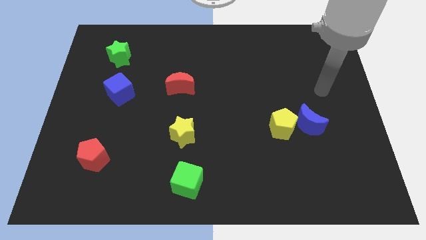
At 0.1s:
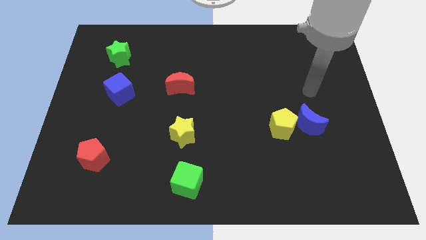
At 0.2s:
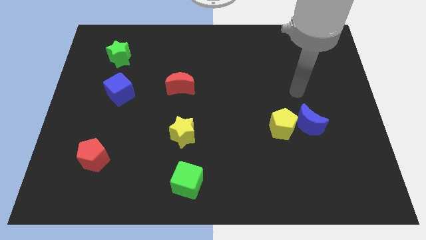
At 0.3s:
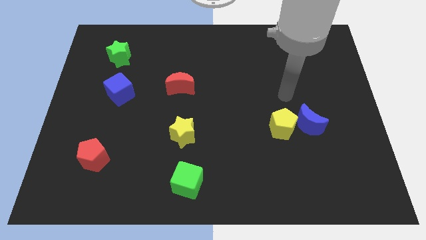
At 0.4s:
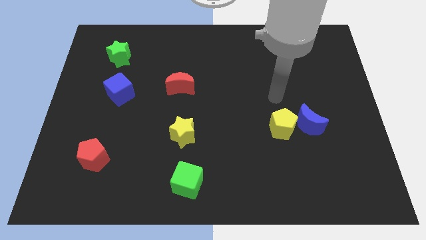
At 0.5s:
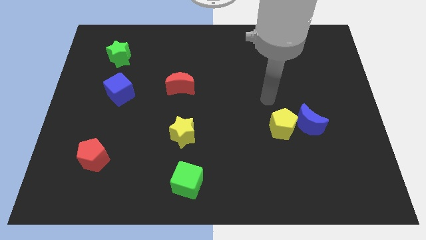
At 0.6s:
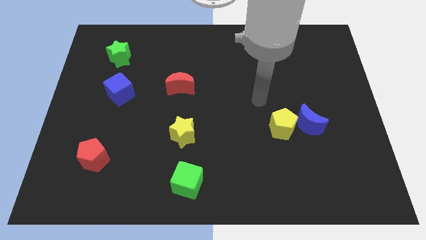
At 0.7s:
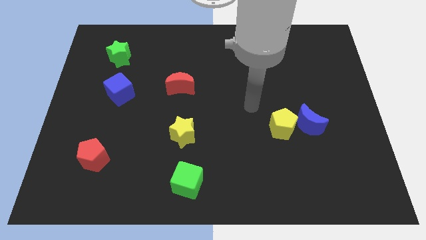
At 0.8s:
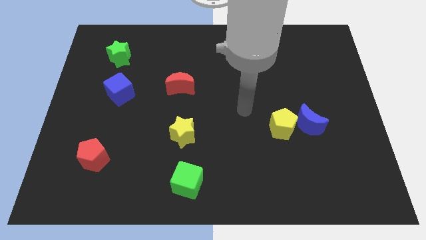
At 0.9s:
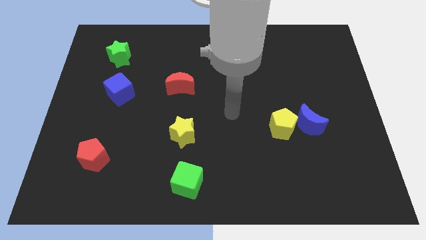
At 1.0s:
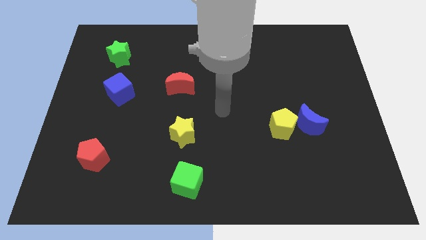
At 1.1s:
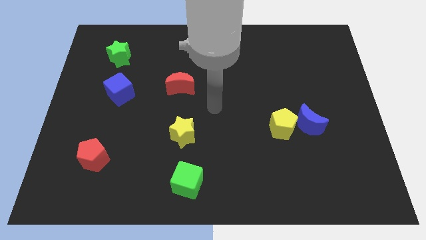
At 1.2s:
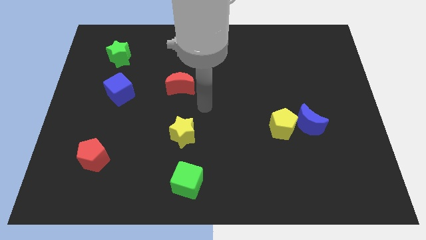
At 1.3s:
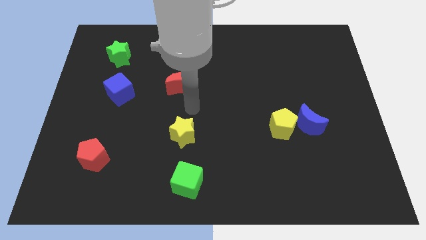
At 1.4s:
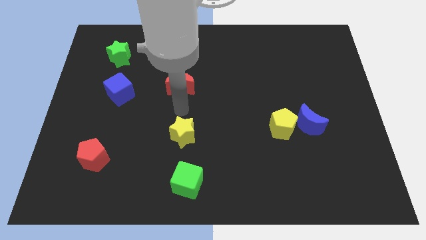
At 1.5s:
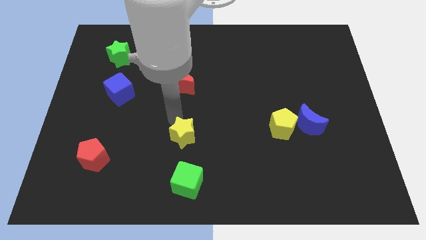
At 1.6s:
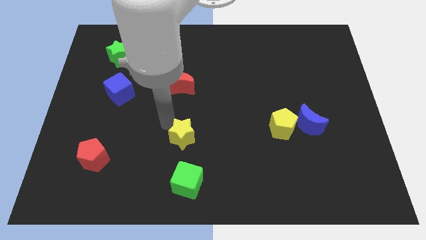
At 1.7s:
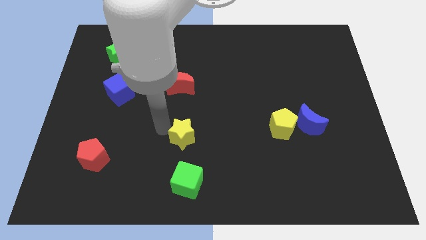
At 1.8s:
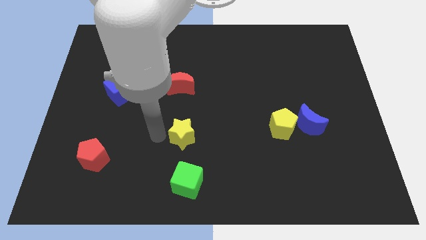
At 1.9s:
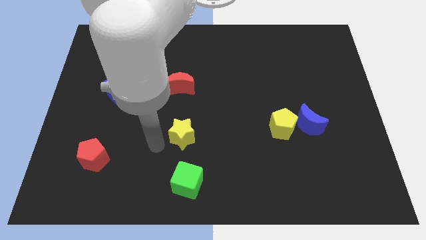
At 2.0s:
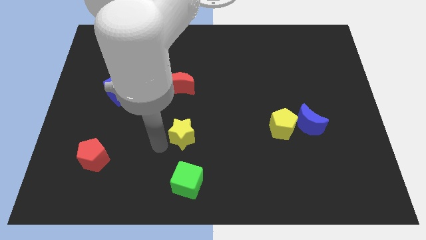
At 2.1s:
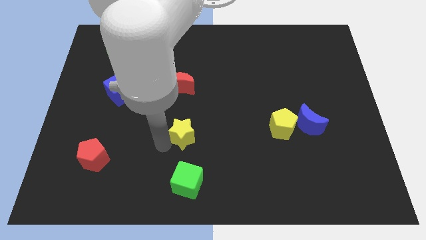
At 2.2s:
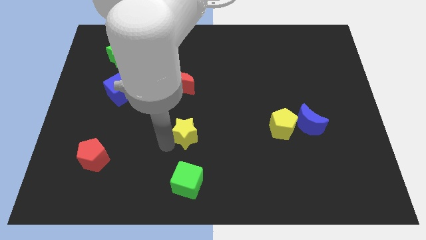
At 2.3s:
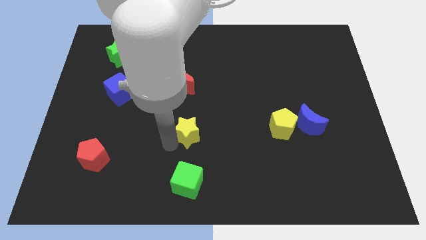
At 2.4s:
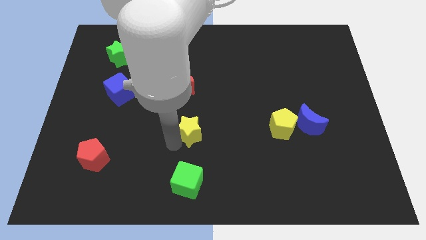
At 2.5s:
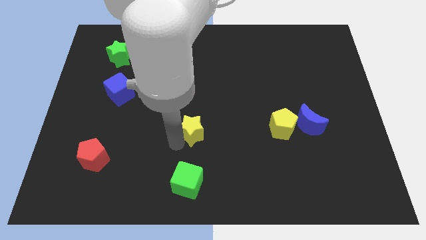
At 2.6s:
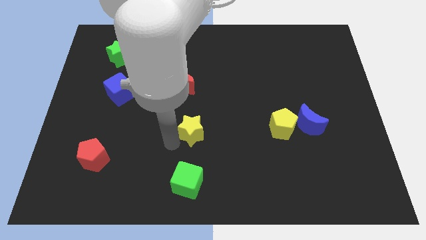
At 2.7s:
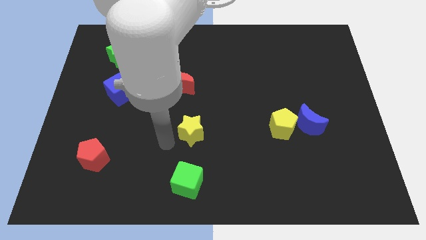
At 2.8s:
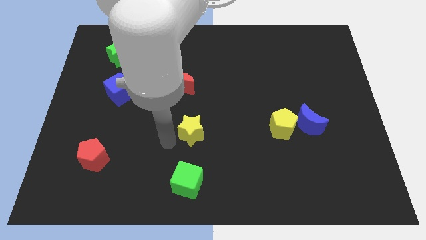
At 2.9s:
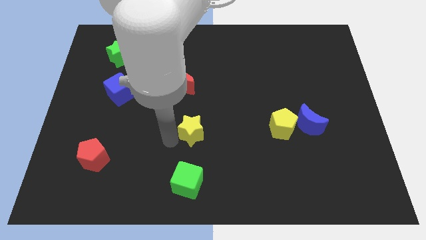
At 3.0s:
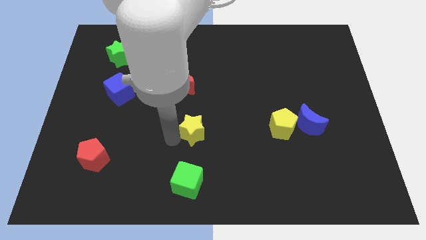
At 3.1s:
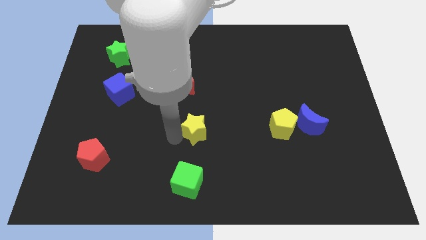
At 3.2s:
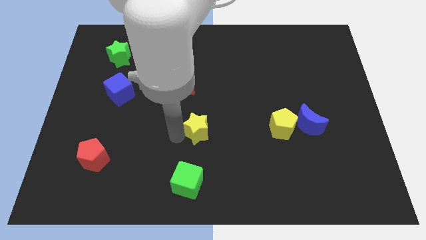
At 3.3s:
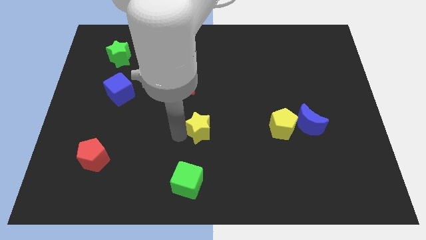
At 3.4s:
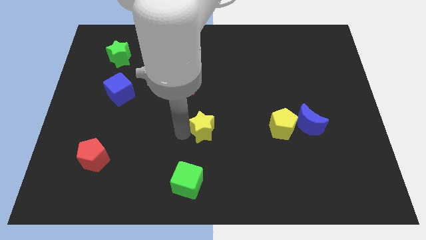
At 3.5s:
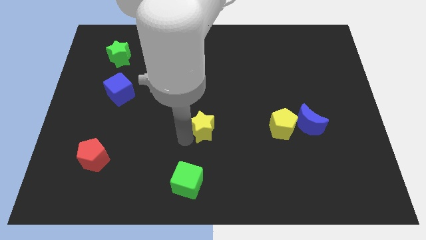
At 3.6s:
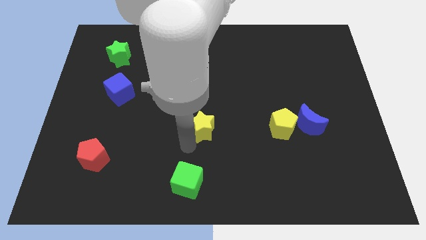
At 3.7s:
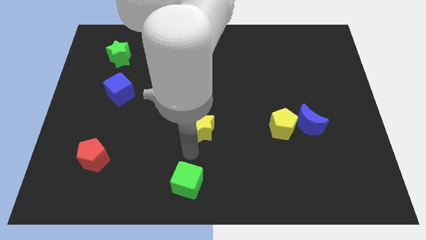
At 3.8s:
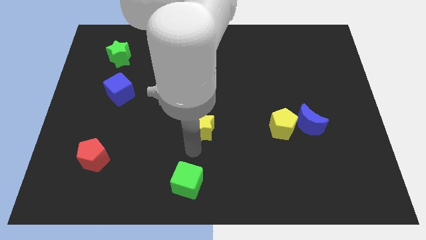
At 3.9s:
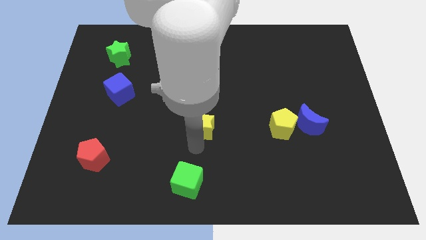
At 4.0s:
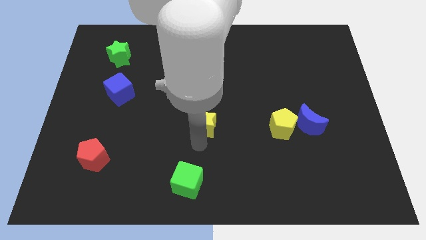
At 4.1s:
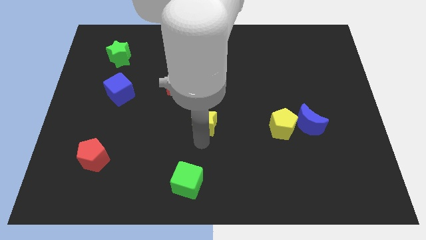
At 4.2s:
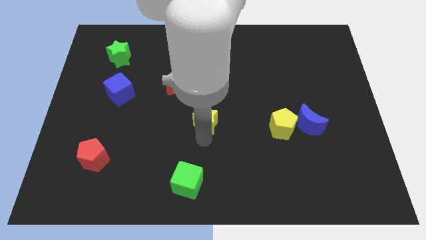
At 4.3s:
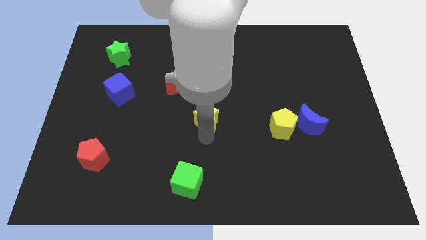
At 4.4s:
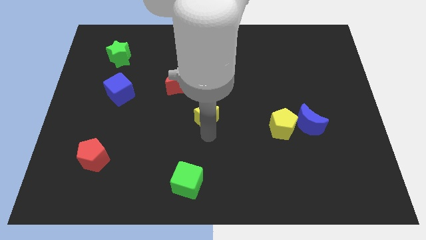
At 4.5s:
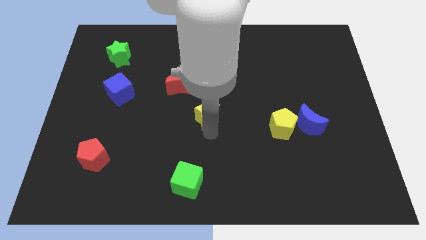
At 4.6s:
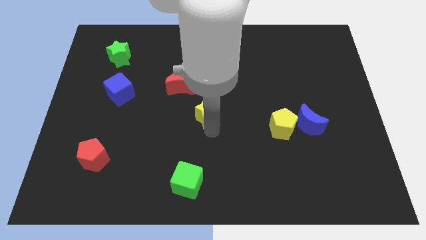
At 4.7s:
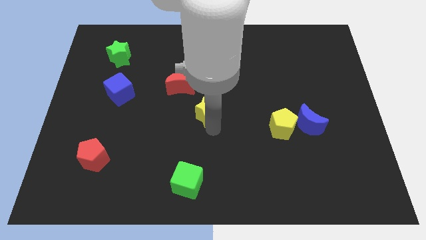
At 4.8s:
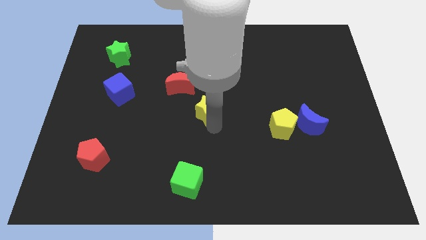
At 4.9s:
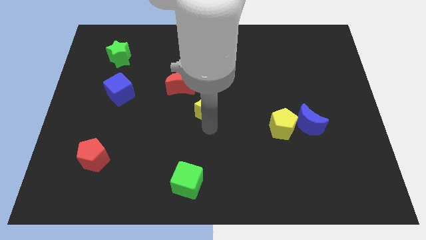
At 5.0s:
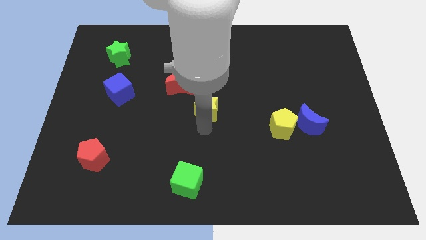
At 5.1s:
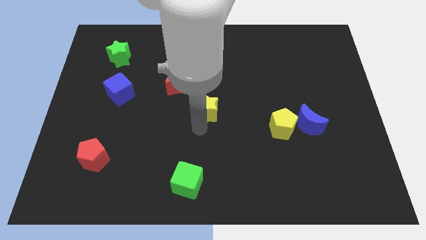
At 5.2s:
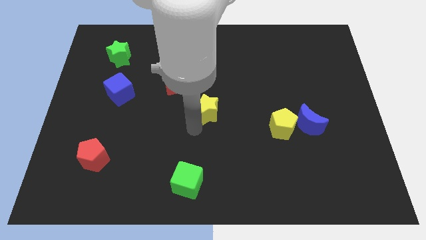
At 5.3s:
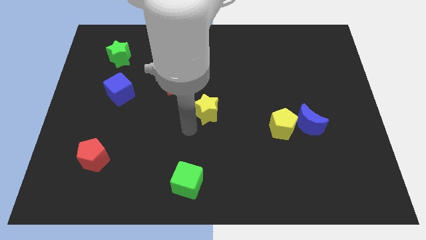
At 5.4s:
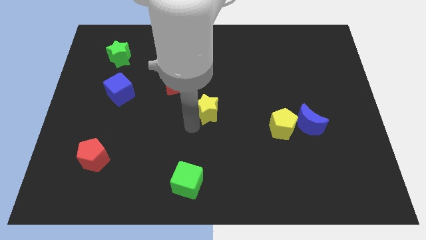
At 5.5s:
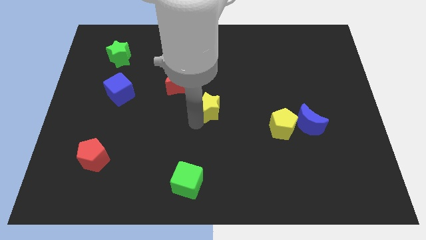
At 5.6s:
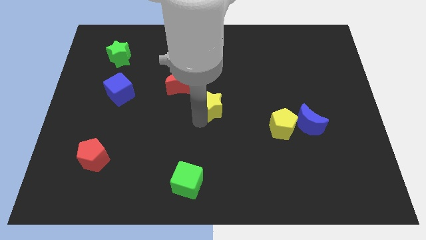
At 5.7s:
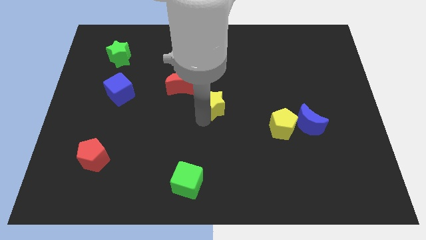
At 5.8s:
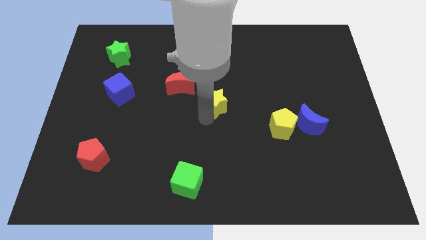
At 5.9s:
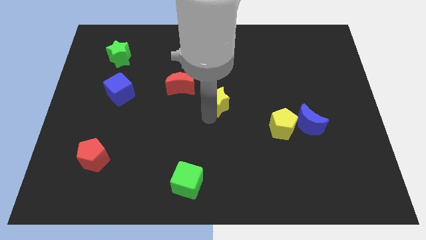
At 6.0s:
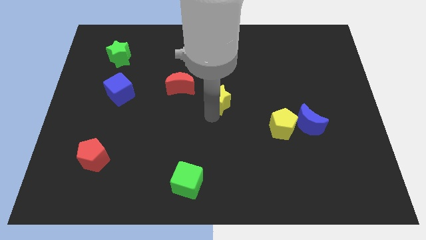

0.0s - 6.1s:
move the yellow star just right of the red moon

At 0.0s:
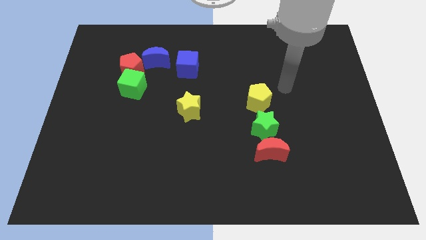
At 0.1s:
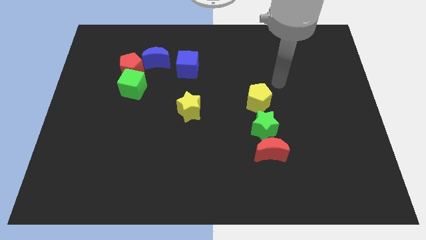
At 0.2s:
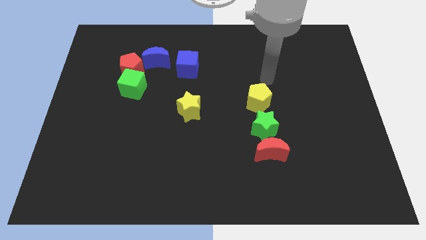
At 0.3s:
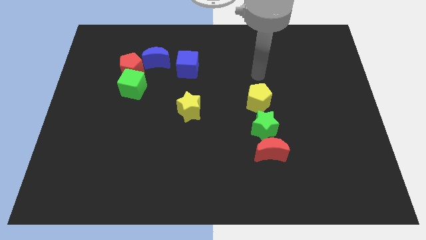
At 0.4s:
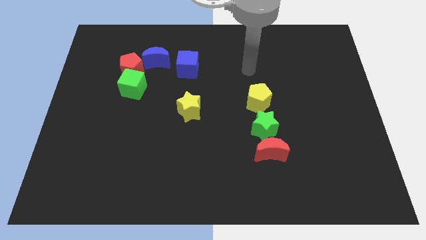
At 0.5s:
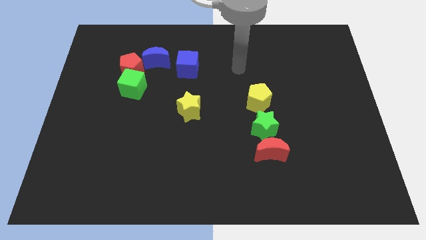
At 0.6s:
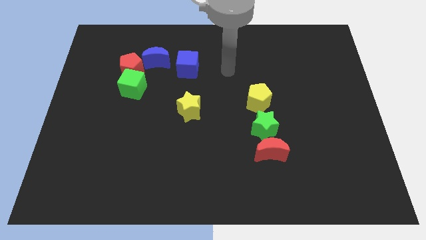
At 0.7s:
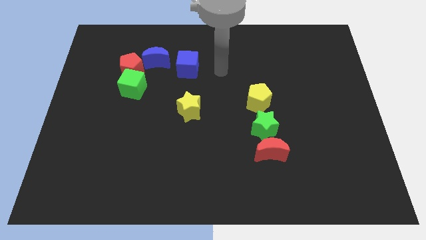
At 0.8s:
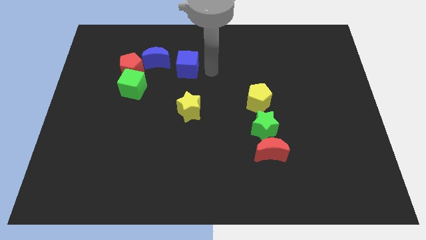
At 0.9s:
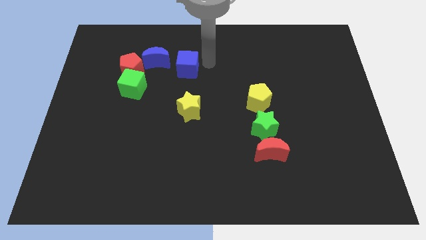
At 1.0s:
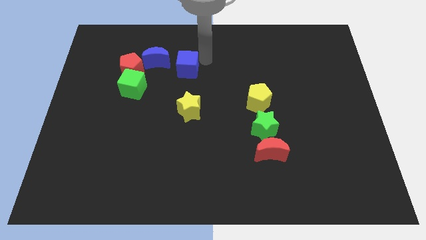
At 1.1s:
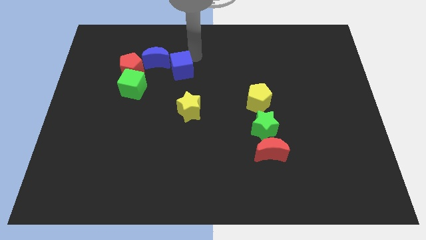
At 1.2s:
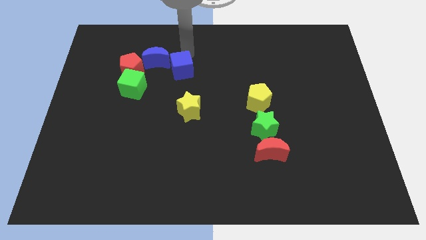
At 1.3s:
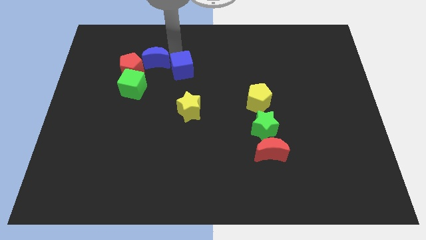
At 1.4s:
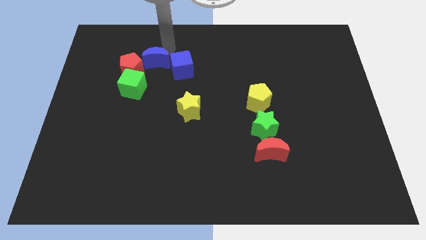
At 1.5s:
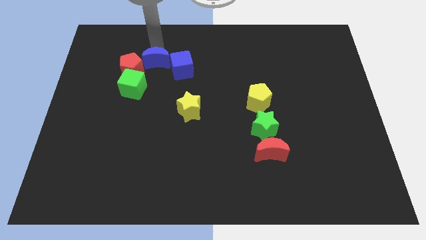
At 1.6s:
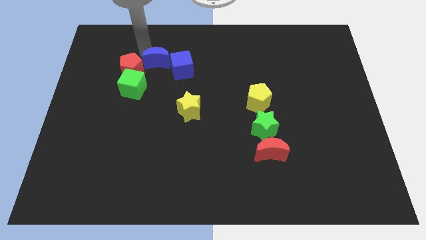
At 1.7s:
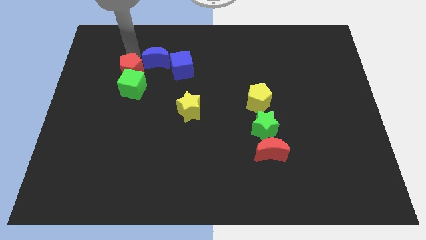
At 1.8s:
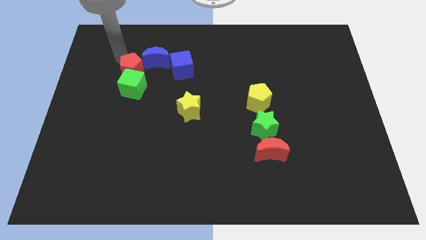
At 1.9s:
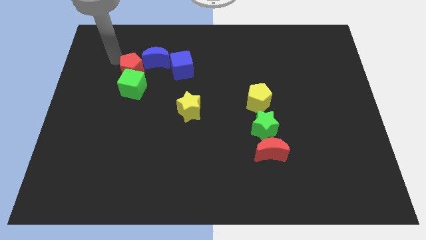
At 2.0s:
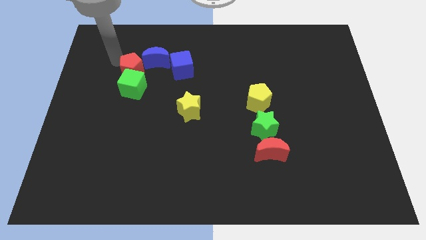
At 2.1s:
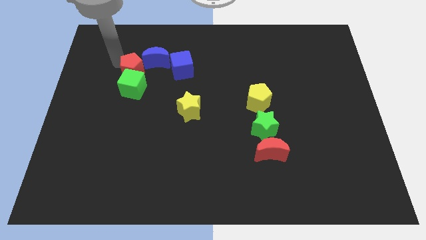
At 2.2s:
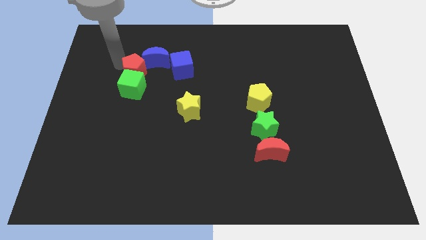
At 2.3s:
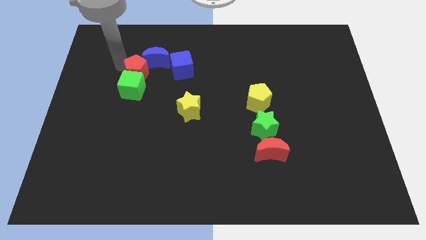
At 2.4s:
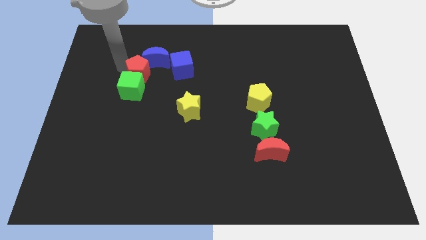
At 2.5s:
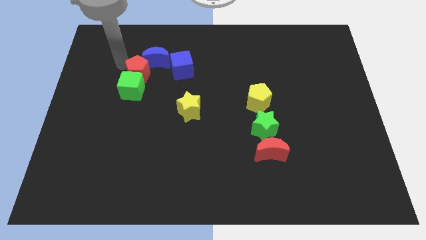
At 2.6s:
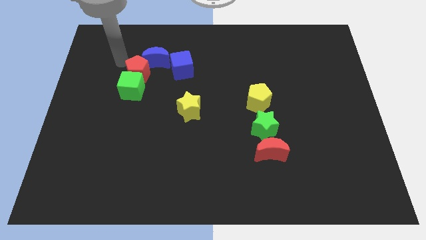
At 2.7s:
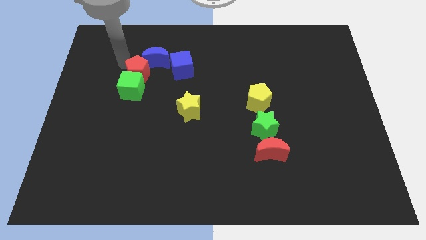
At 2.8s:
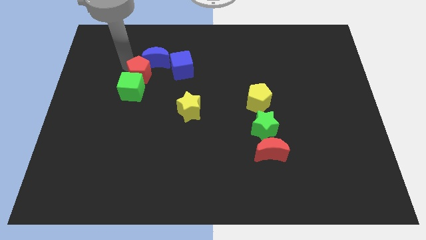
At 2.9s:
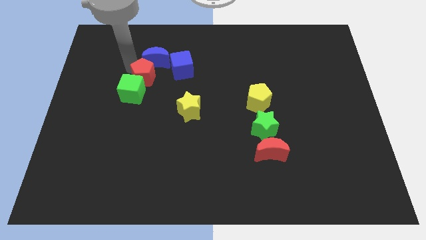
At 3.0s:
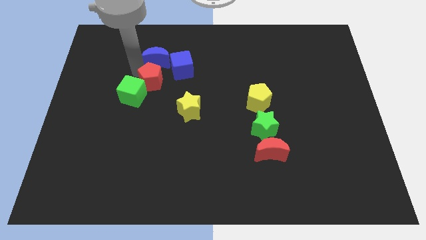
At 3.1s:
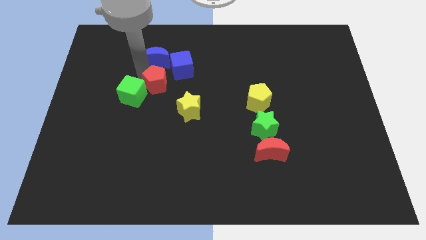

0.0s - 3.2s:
push the red pentagon to the top left side of the yellow star
